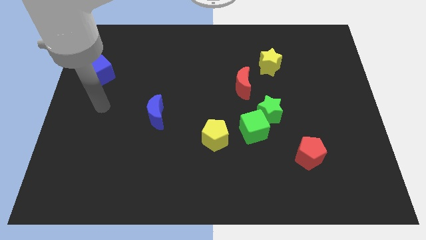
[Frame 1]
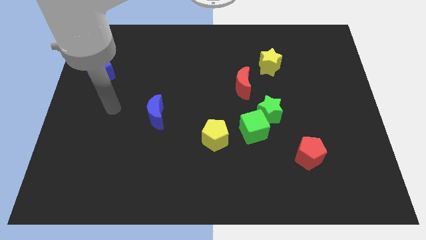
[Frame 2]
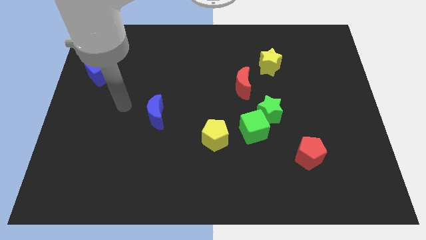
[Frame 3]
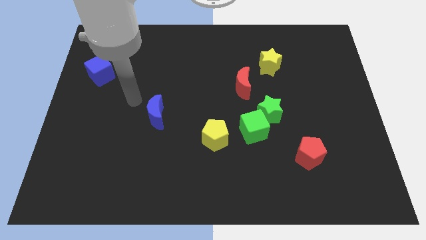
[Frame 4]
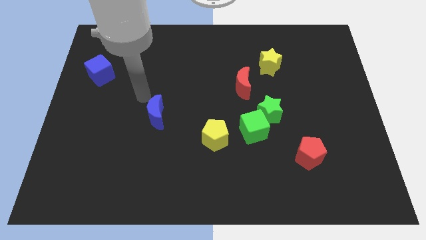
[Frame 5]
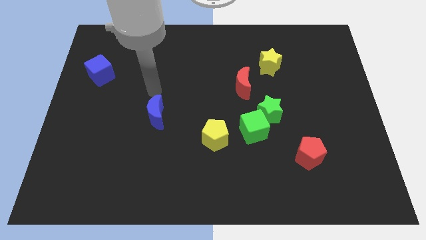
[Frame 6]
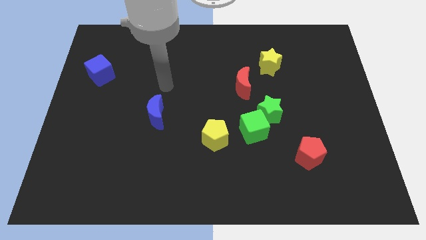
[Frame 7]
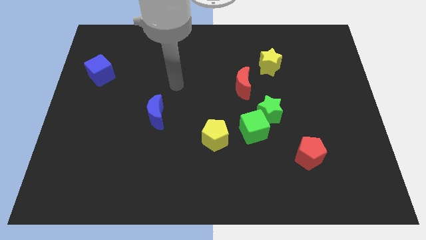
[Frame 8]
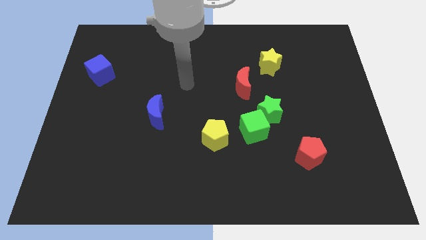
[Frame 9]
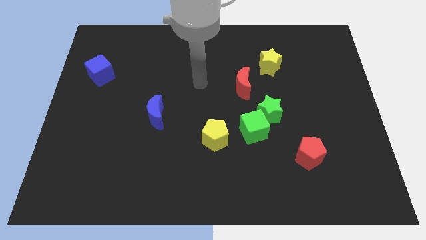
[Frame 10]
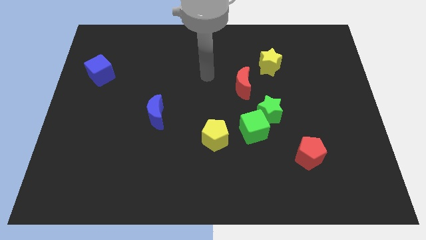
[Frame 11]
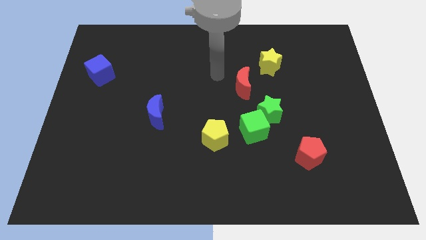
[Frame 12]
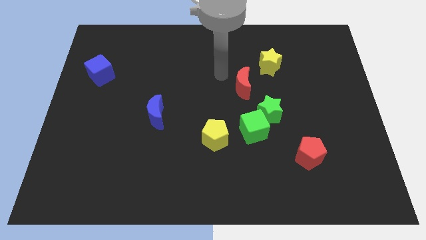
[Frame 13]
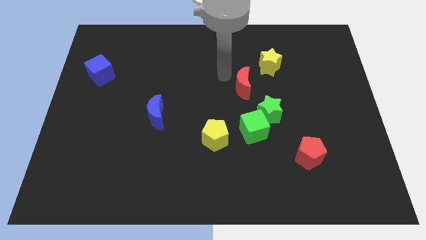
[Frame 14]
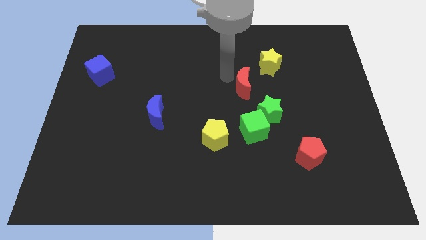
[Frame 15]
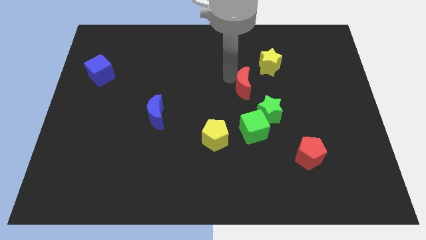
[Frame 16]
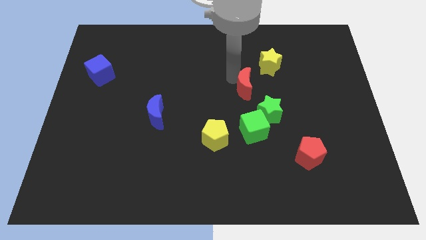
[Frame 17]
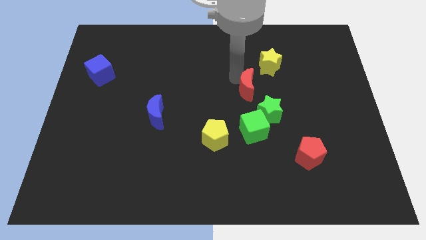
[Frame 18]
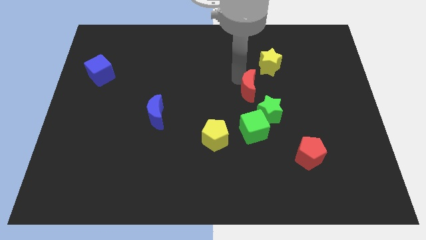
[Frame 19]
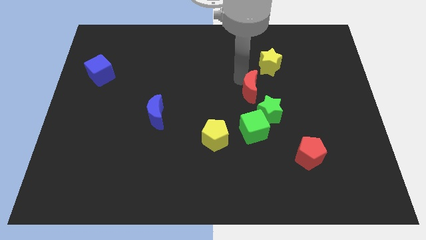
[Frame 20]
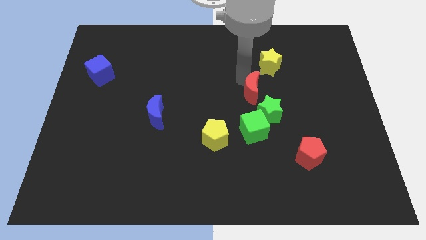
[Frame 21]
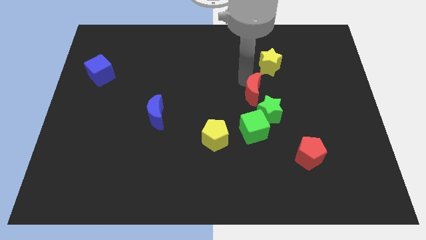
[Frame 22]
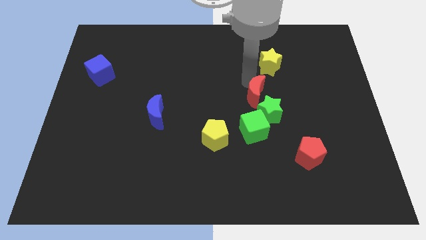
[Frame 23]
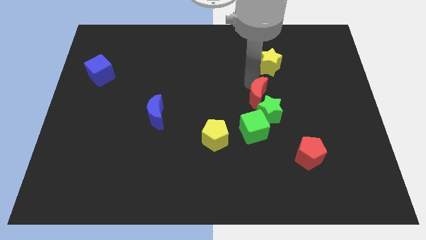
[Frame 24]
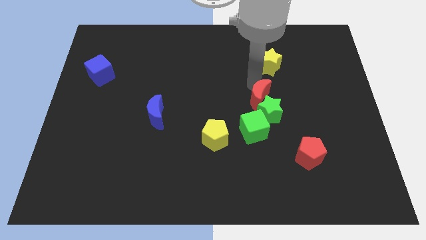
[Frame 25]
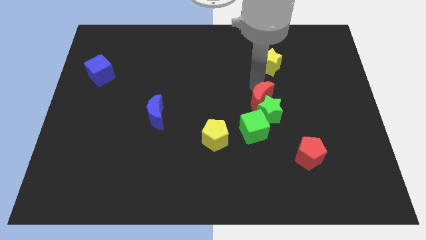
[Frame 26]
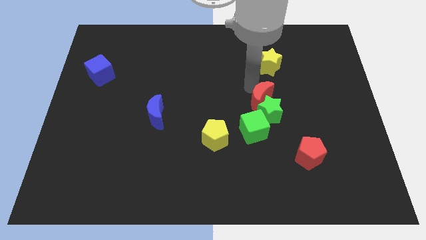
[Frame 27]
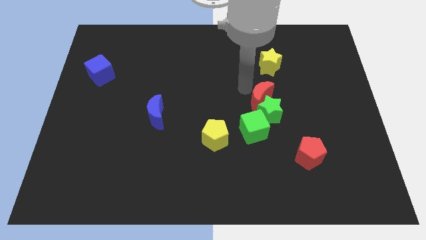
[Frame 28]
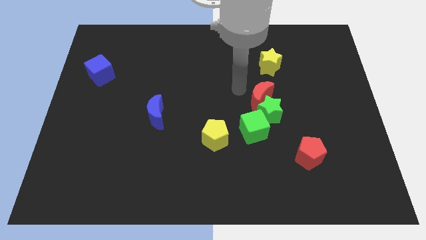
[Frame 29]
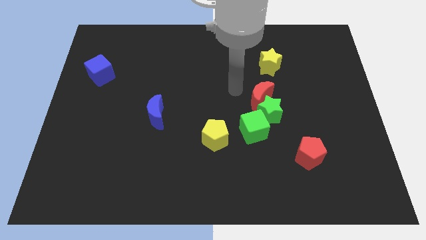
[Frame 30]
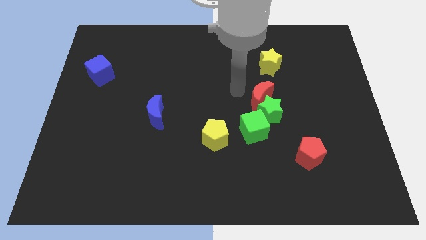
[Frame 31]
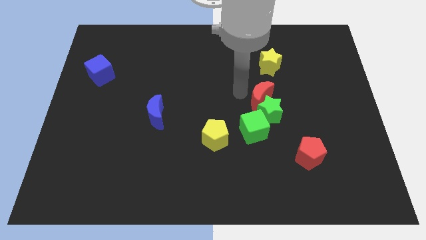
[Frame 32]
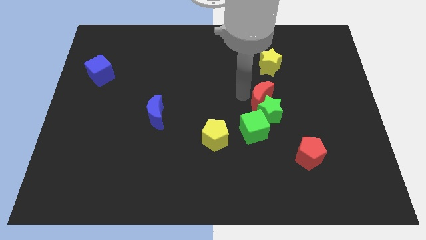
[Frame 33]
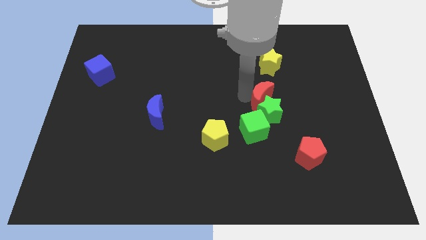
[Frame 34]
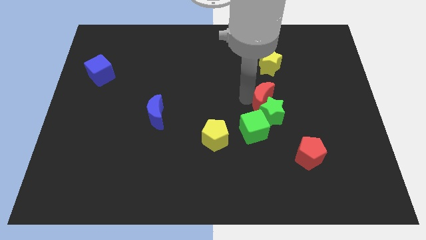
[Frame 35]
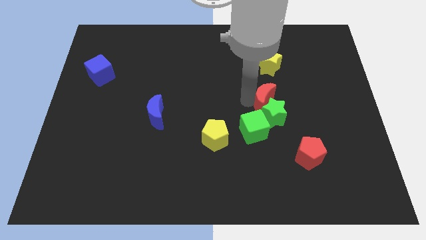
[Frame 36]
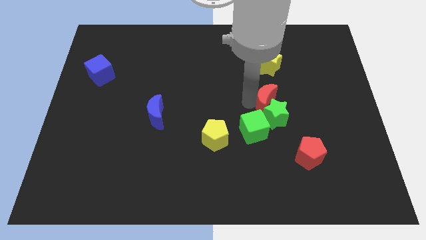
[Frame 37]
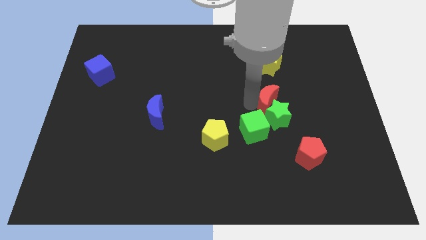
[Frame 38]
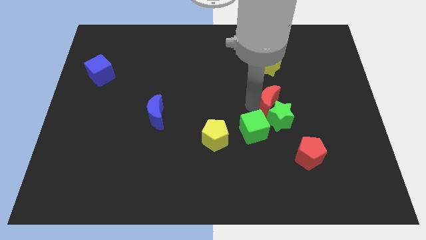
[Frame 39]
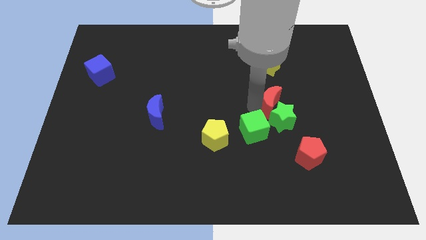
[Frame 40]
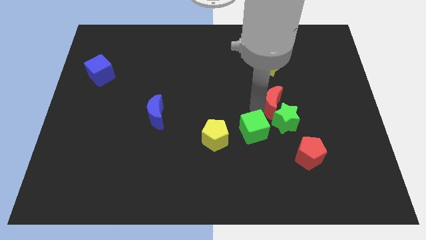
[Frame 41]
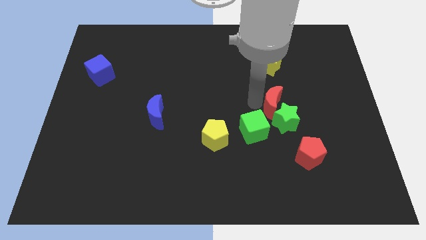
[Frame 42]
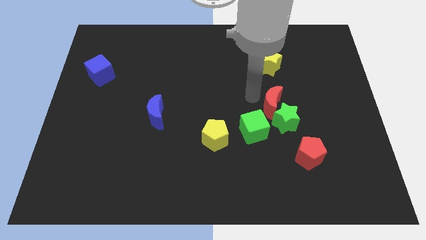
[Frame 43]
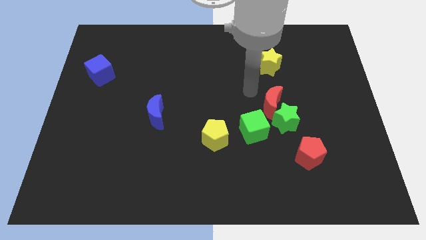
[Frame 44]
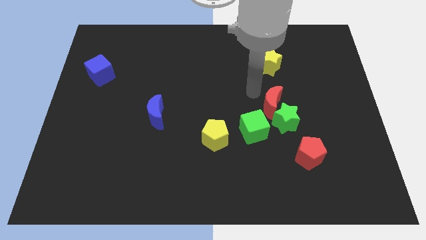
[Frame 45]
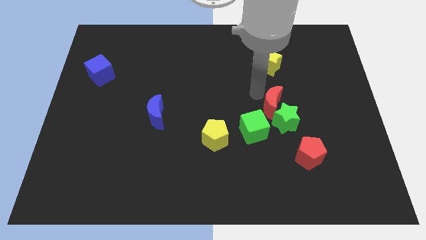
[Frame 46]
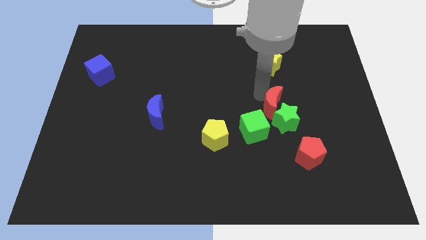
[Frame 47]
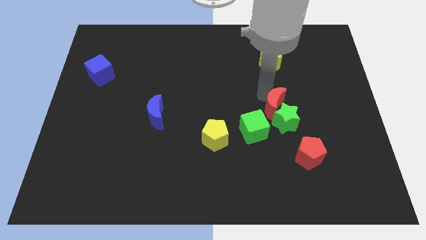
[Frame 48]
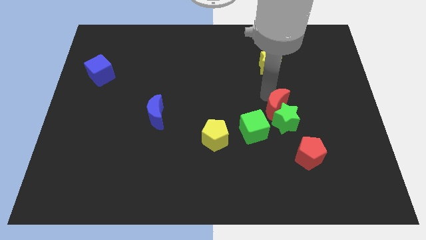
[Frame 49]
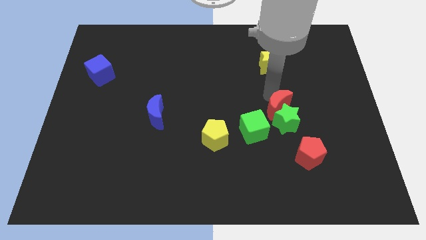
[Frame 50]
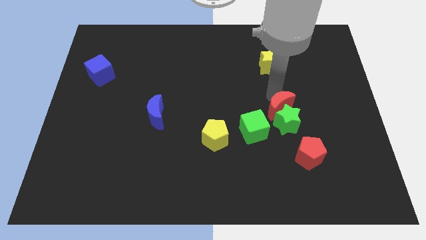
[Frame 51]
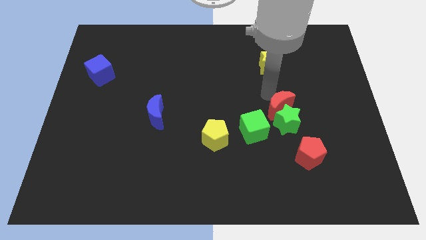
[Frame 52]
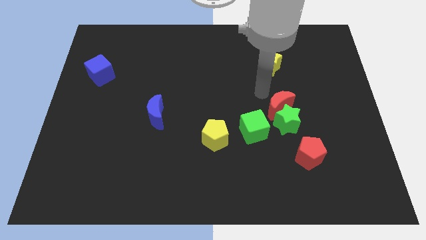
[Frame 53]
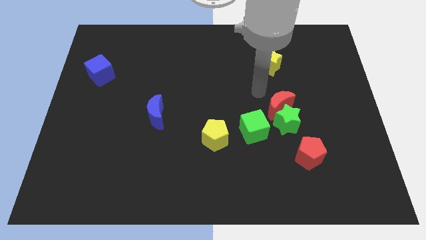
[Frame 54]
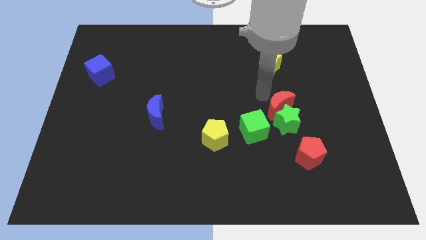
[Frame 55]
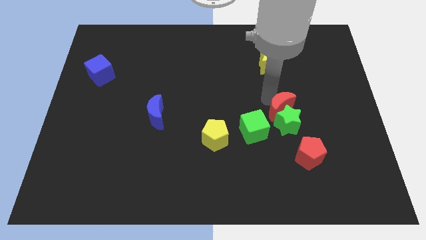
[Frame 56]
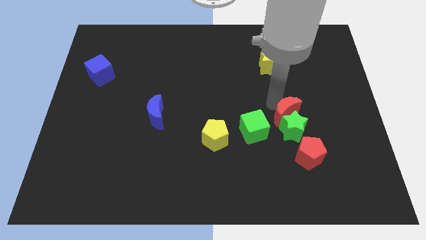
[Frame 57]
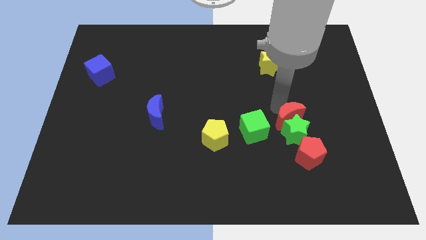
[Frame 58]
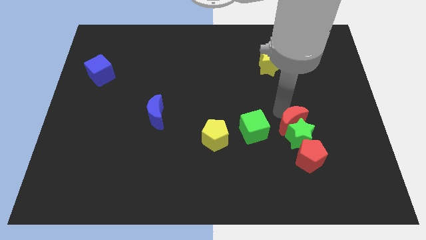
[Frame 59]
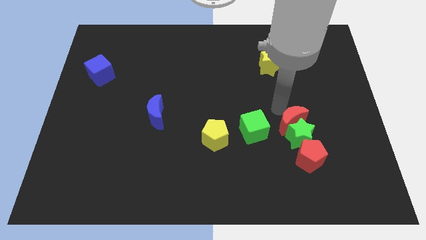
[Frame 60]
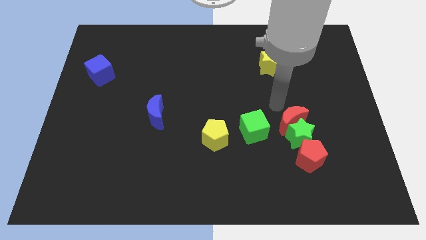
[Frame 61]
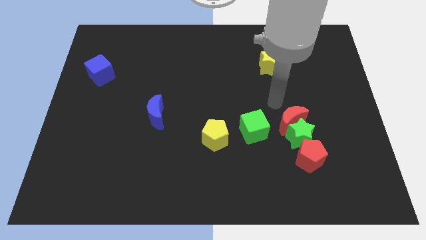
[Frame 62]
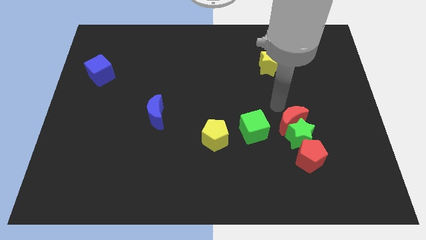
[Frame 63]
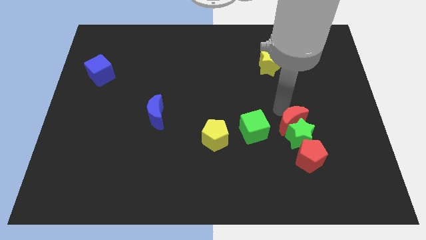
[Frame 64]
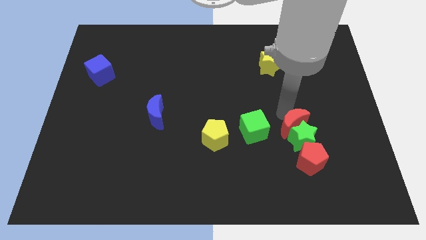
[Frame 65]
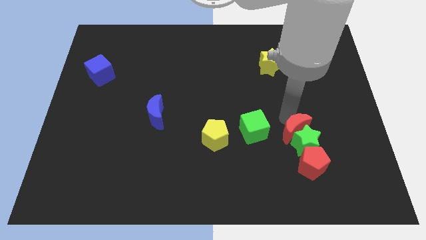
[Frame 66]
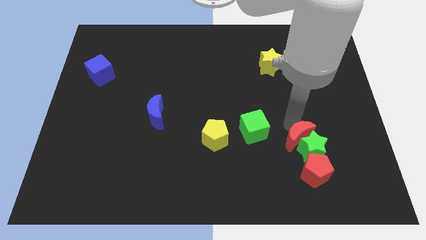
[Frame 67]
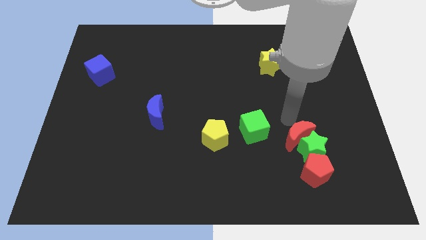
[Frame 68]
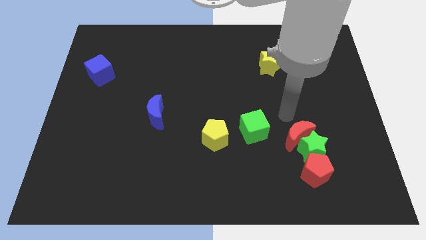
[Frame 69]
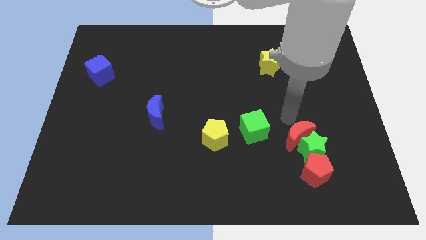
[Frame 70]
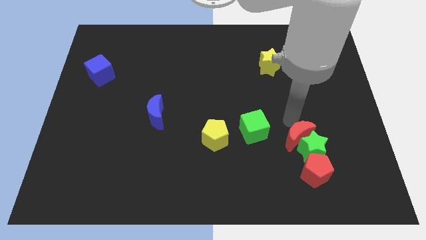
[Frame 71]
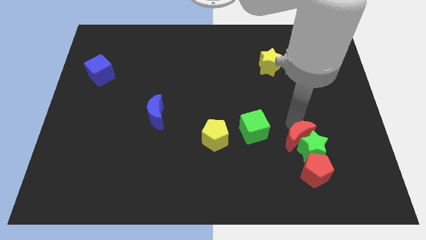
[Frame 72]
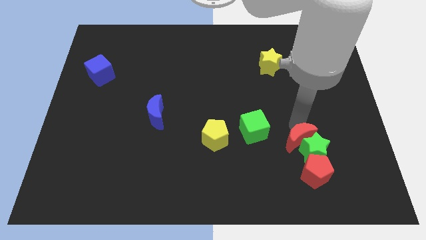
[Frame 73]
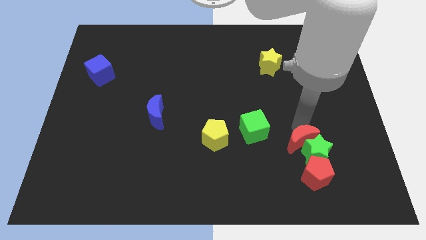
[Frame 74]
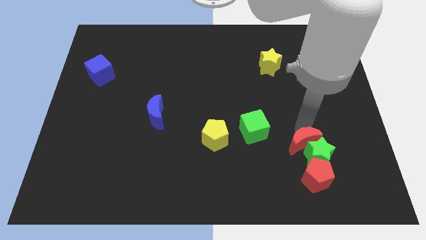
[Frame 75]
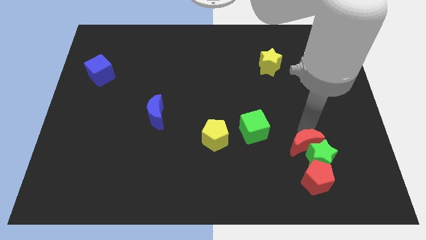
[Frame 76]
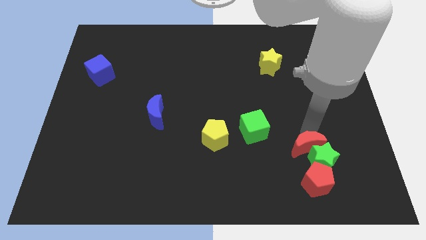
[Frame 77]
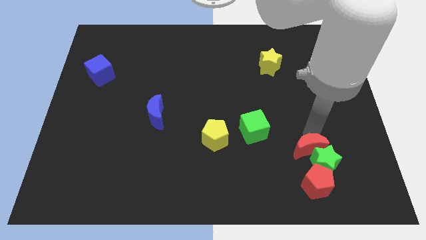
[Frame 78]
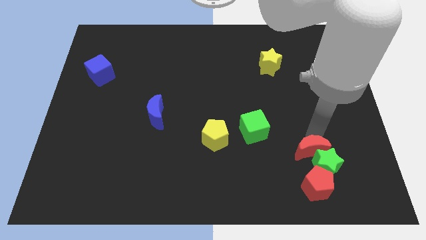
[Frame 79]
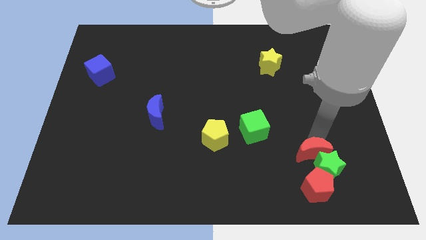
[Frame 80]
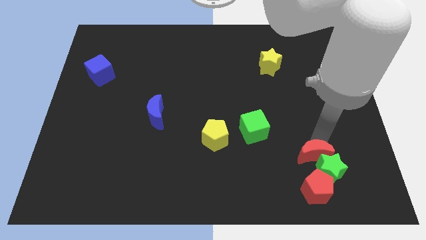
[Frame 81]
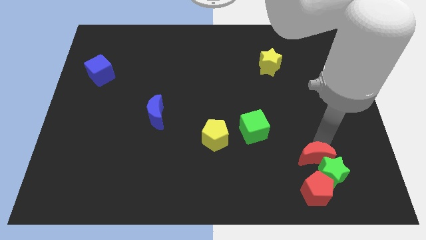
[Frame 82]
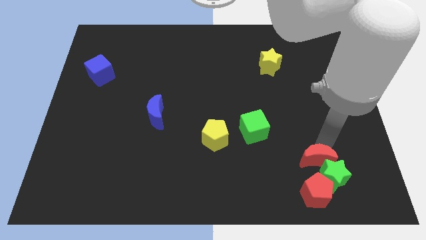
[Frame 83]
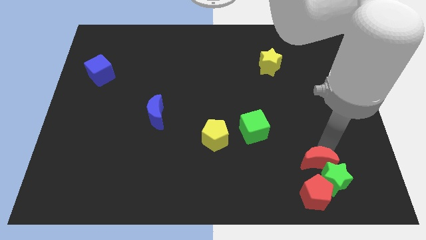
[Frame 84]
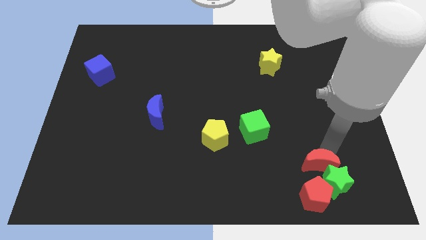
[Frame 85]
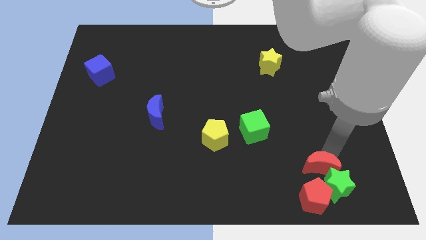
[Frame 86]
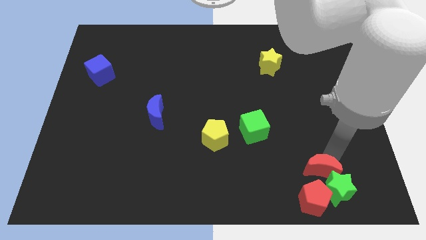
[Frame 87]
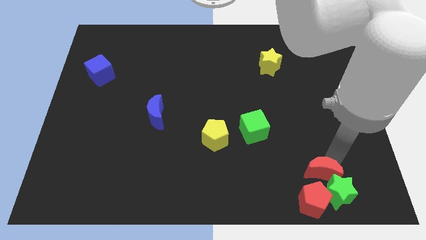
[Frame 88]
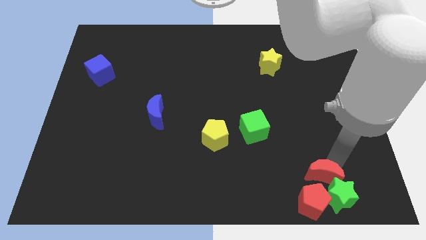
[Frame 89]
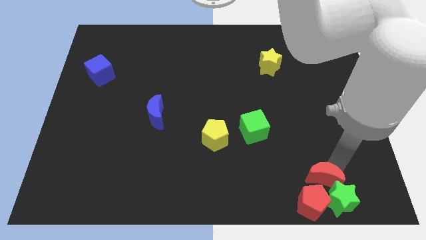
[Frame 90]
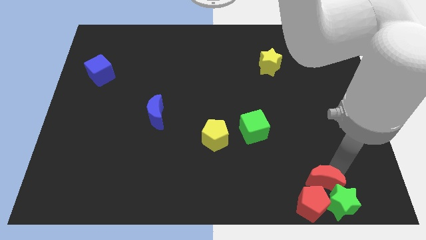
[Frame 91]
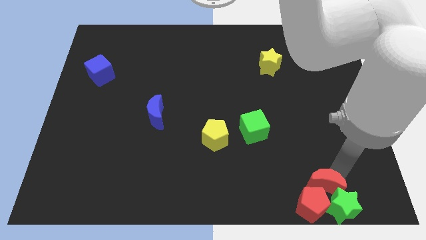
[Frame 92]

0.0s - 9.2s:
move the red moon to the red pentagon
